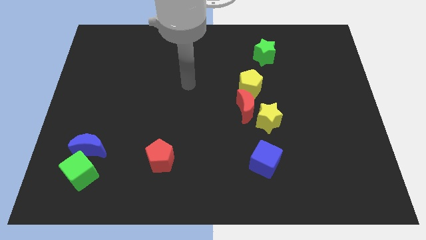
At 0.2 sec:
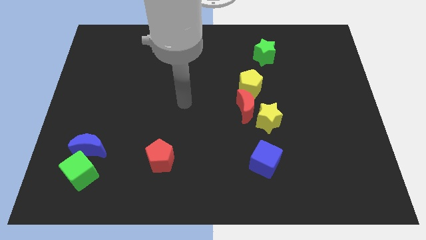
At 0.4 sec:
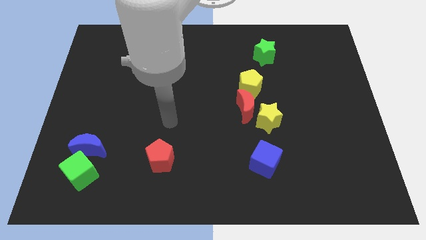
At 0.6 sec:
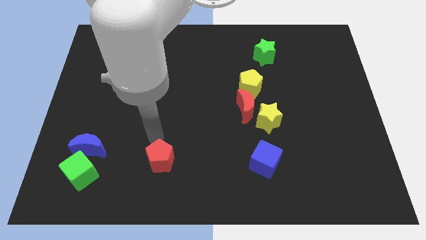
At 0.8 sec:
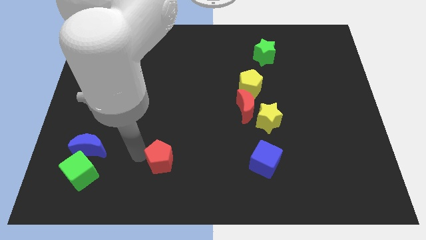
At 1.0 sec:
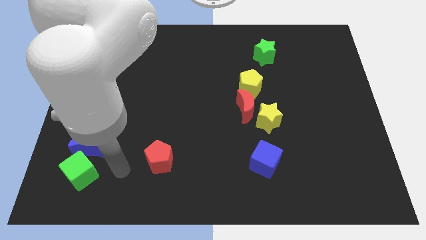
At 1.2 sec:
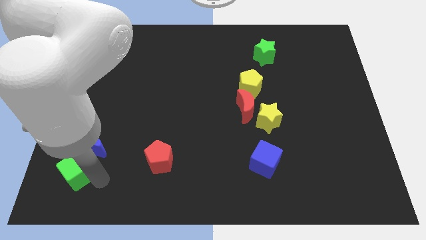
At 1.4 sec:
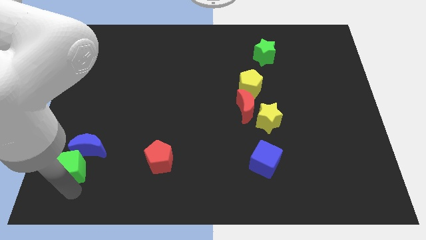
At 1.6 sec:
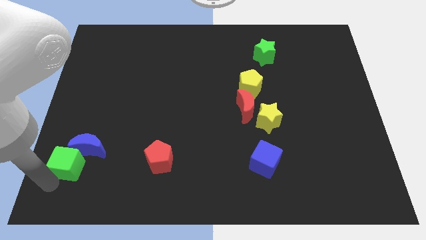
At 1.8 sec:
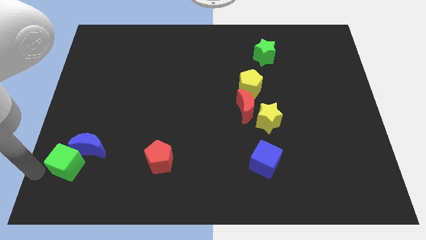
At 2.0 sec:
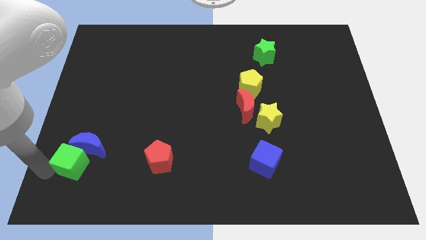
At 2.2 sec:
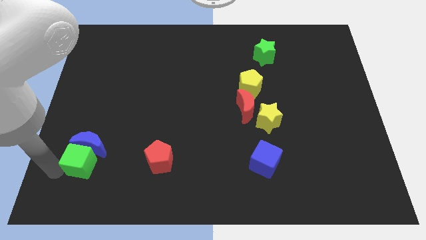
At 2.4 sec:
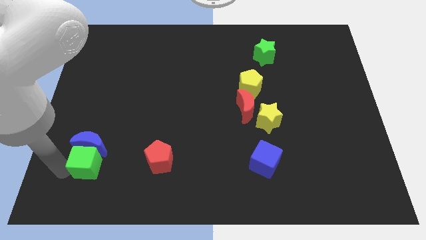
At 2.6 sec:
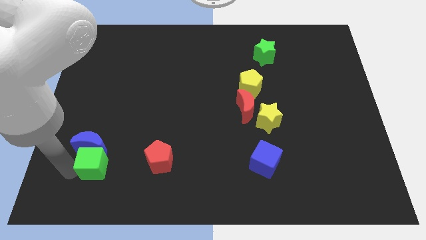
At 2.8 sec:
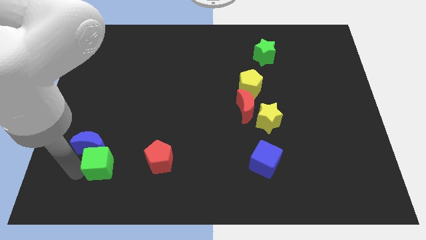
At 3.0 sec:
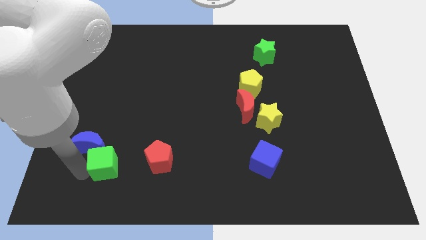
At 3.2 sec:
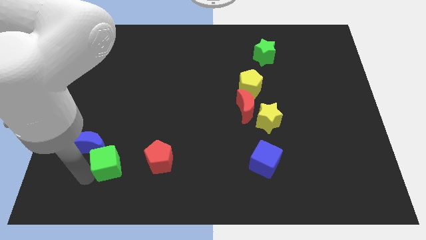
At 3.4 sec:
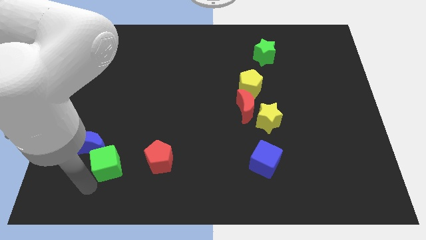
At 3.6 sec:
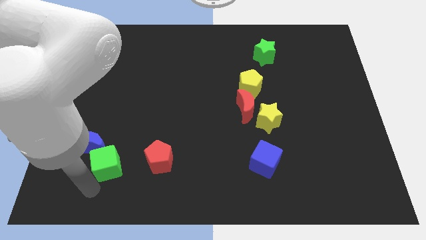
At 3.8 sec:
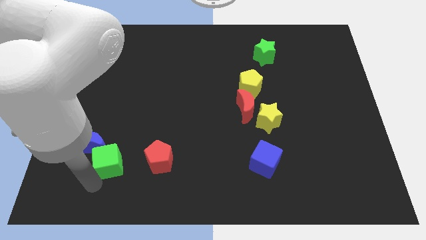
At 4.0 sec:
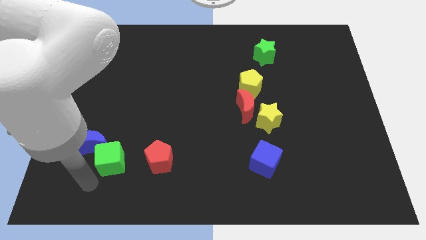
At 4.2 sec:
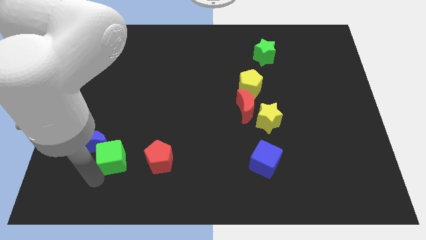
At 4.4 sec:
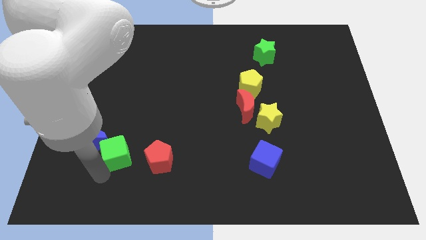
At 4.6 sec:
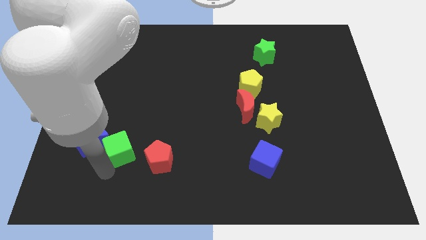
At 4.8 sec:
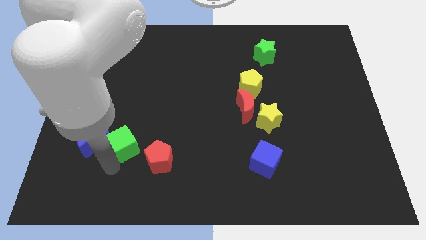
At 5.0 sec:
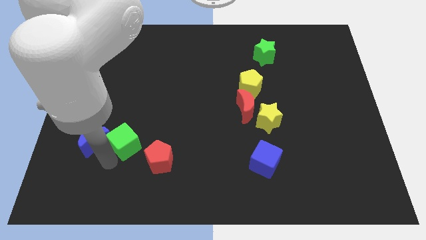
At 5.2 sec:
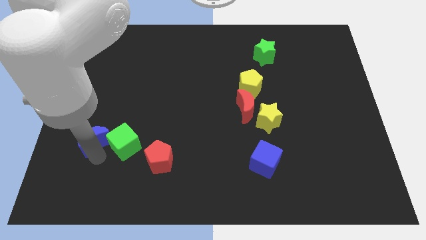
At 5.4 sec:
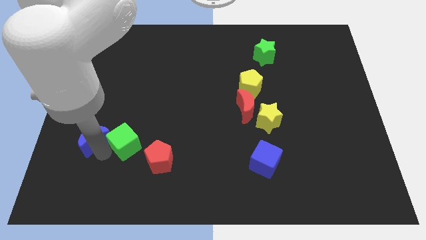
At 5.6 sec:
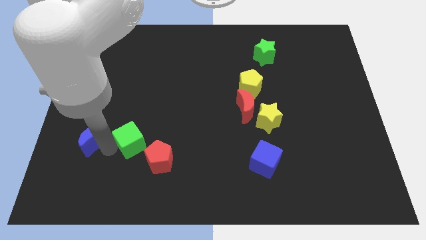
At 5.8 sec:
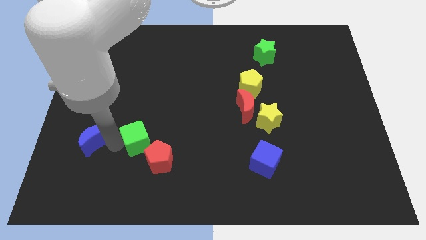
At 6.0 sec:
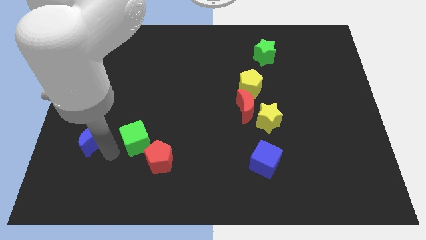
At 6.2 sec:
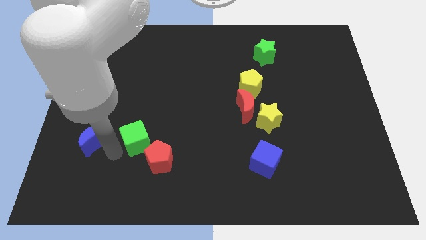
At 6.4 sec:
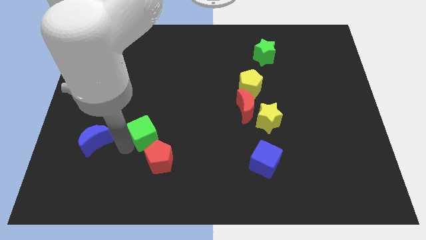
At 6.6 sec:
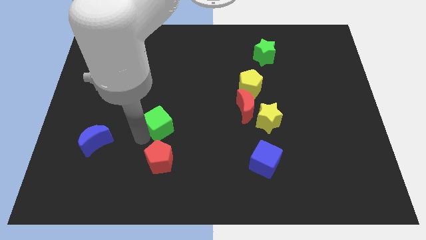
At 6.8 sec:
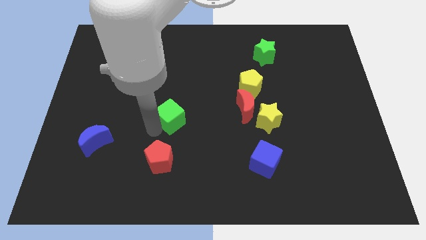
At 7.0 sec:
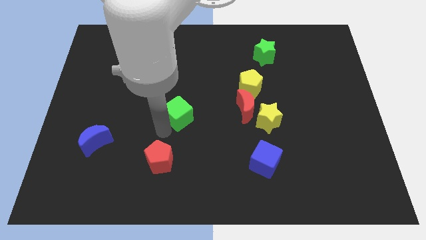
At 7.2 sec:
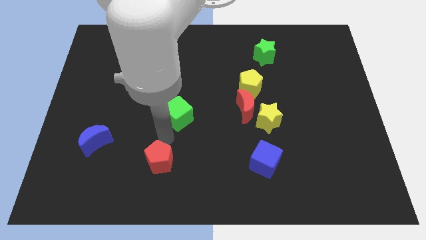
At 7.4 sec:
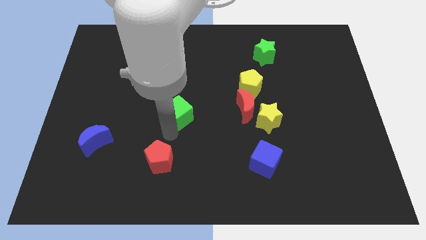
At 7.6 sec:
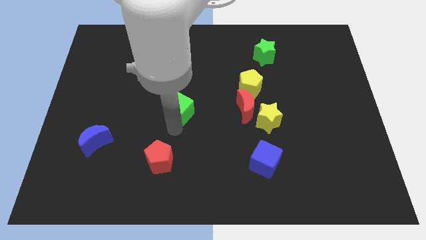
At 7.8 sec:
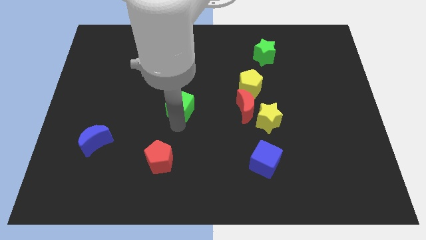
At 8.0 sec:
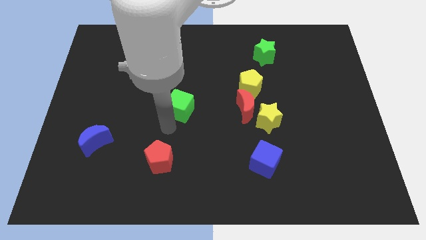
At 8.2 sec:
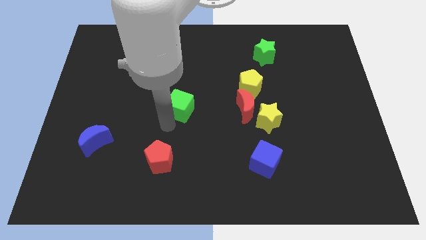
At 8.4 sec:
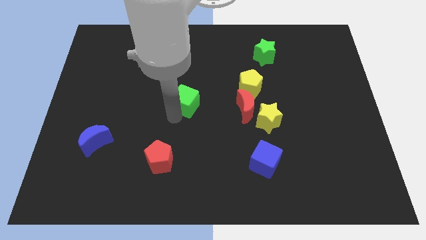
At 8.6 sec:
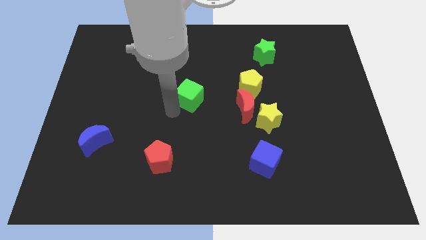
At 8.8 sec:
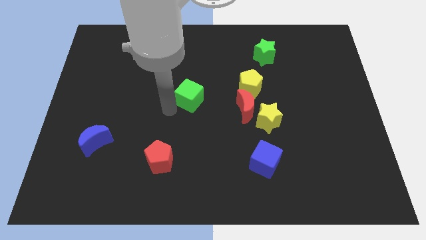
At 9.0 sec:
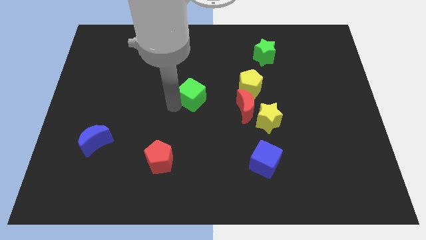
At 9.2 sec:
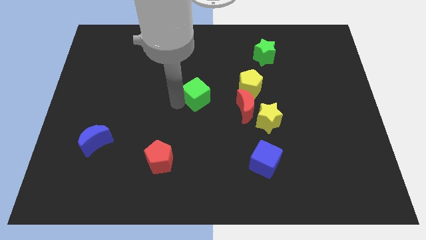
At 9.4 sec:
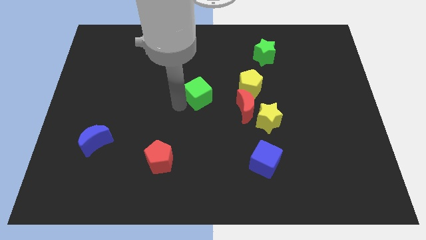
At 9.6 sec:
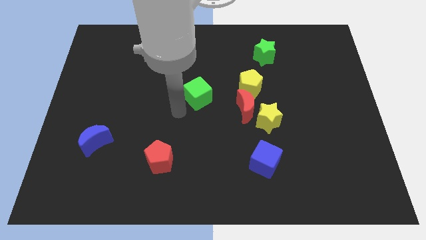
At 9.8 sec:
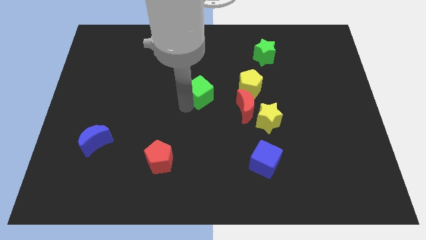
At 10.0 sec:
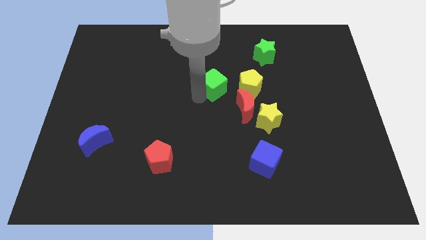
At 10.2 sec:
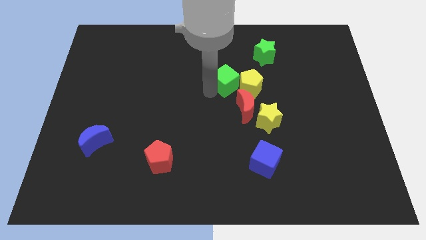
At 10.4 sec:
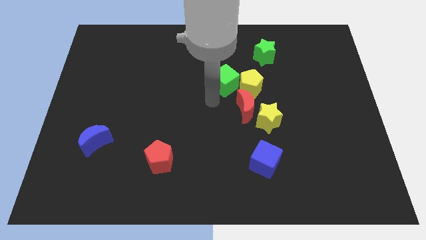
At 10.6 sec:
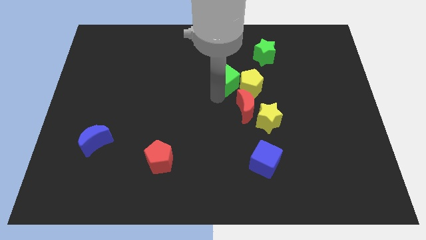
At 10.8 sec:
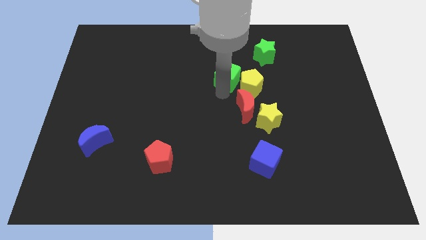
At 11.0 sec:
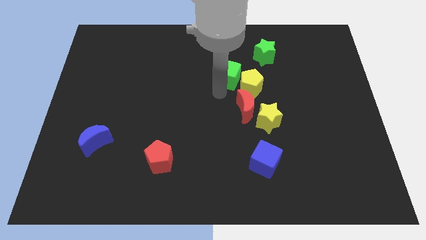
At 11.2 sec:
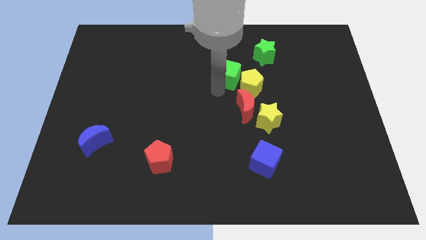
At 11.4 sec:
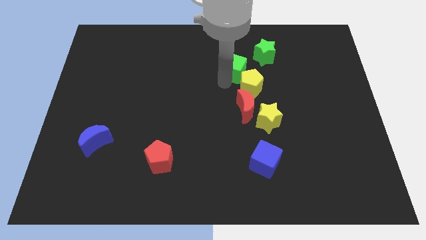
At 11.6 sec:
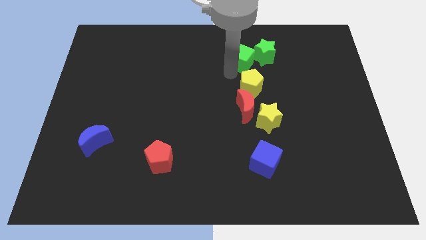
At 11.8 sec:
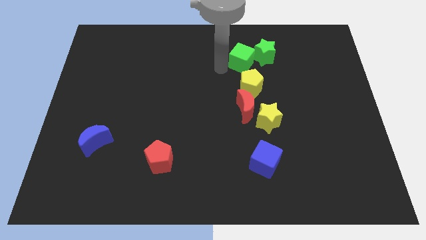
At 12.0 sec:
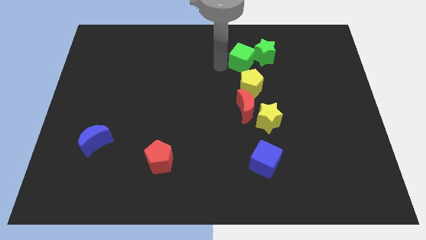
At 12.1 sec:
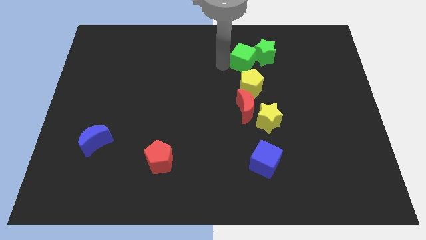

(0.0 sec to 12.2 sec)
put the green cube next to the green star

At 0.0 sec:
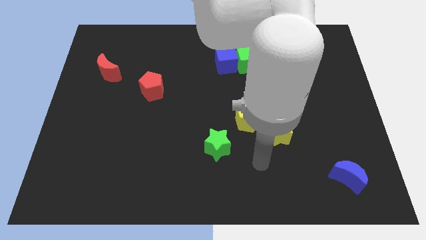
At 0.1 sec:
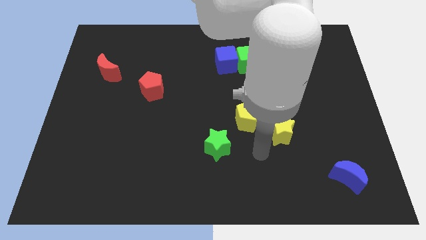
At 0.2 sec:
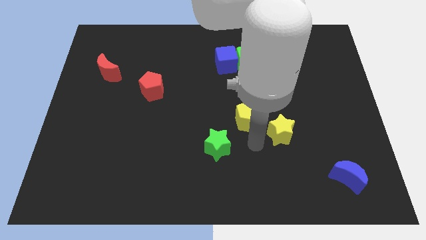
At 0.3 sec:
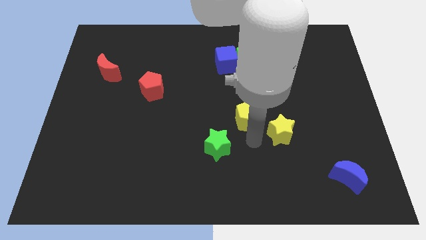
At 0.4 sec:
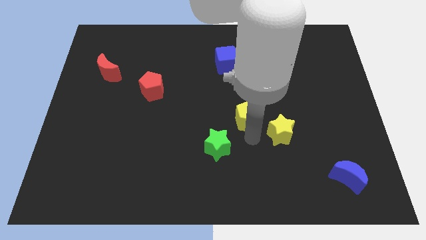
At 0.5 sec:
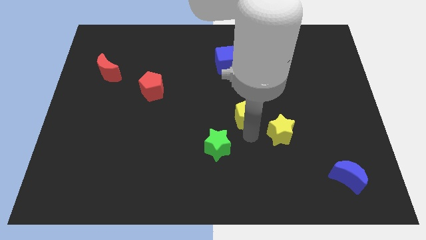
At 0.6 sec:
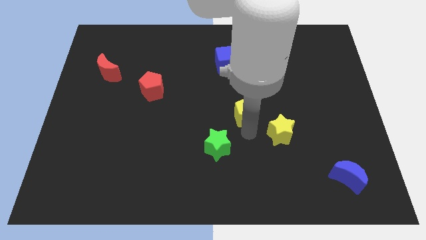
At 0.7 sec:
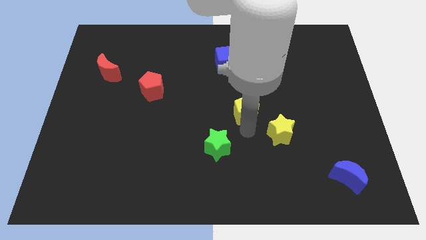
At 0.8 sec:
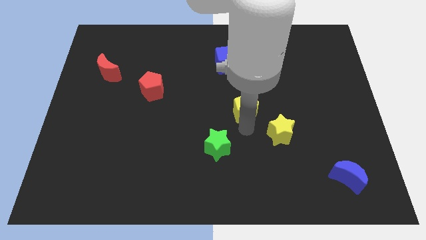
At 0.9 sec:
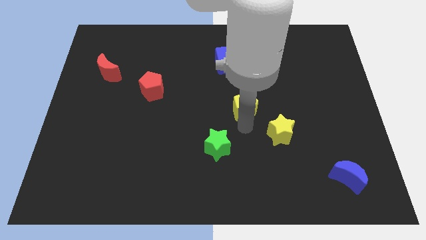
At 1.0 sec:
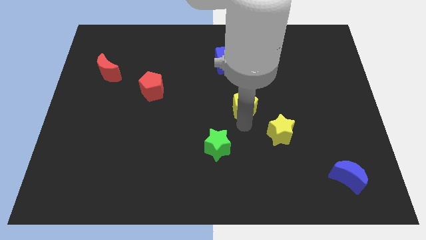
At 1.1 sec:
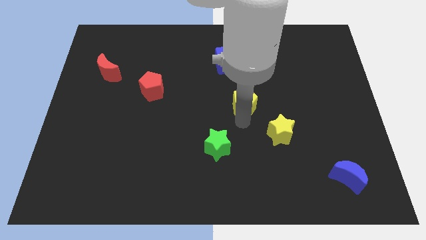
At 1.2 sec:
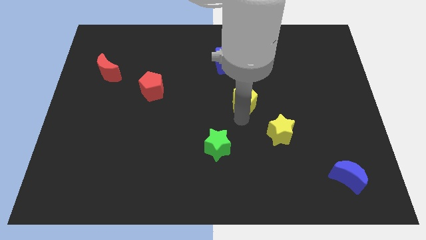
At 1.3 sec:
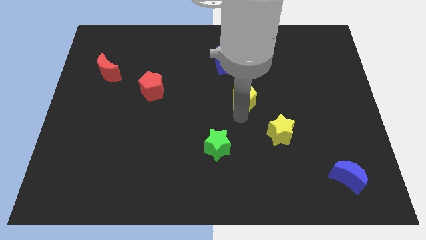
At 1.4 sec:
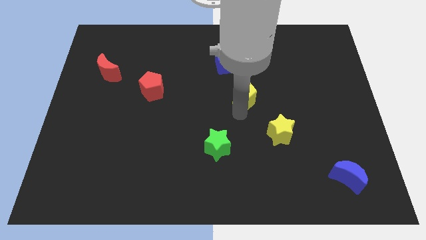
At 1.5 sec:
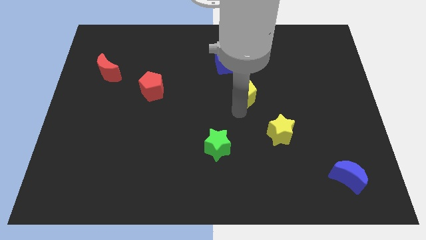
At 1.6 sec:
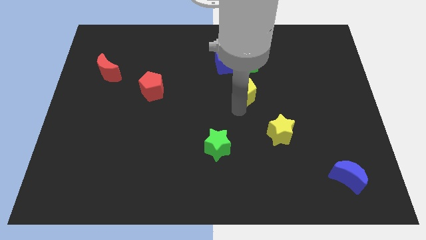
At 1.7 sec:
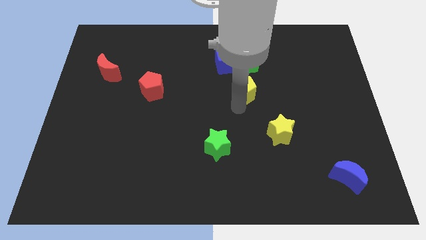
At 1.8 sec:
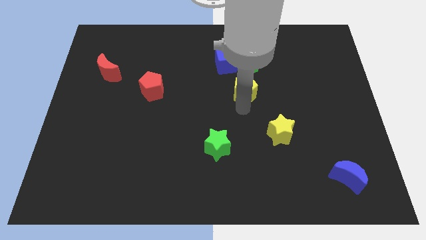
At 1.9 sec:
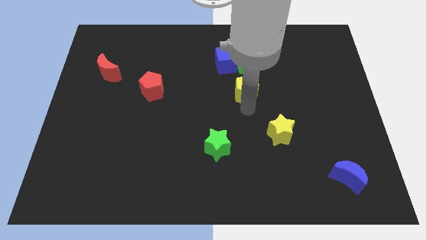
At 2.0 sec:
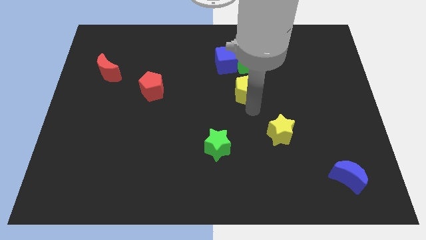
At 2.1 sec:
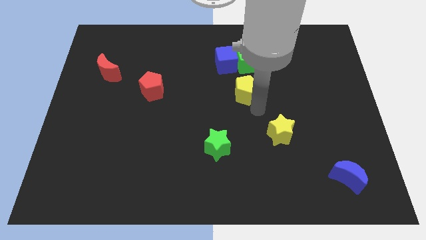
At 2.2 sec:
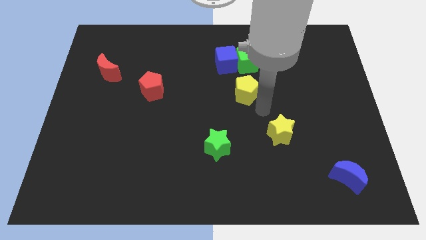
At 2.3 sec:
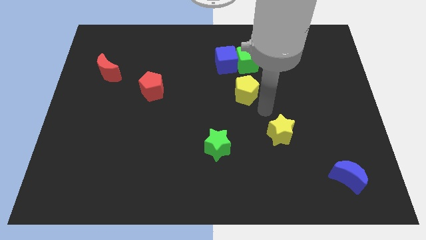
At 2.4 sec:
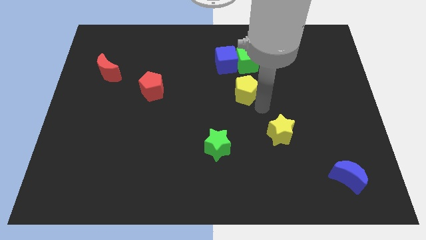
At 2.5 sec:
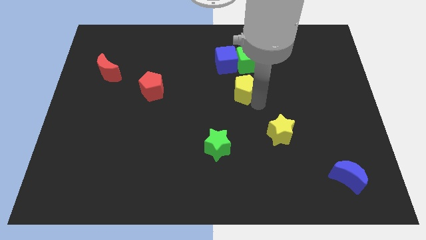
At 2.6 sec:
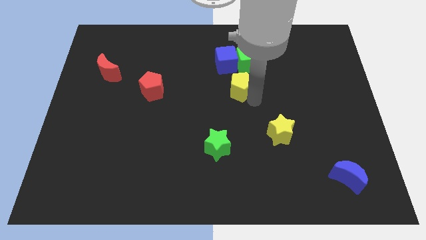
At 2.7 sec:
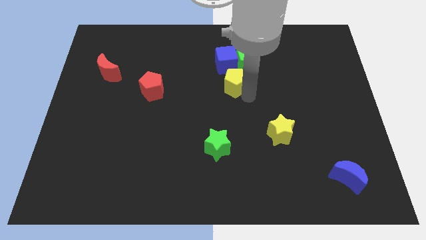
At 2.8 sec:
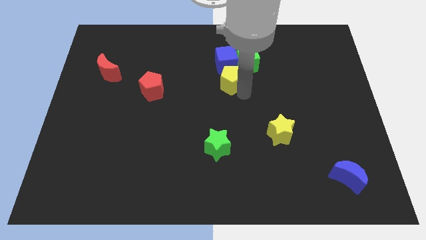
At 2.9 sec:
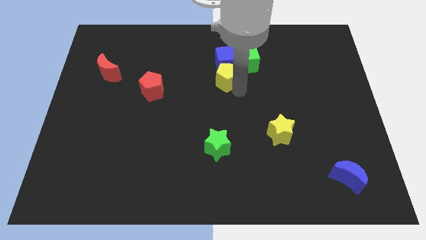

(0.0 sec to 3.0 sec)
move the yellow pentagon close to the blue cube
